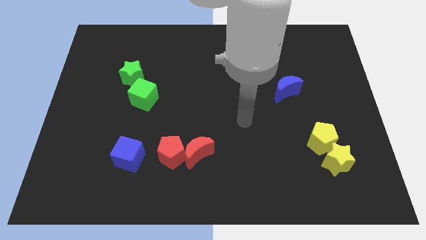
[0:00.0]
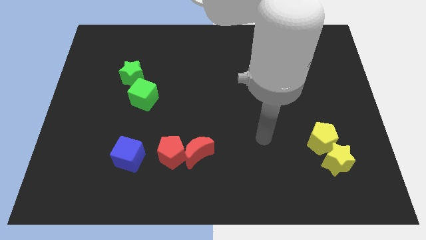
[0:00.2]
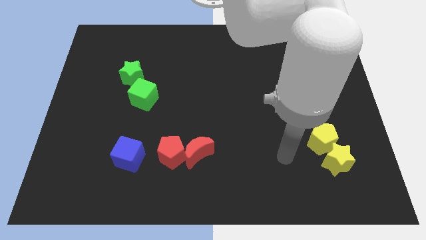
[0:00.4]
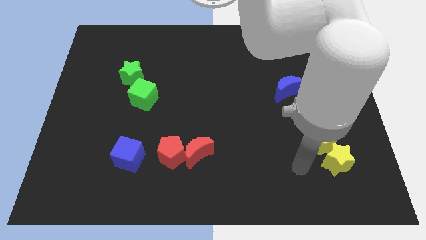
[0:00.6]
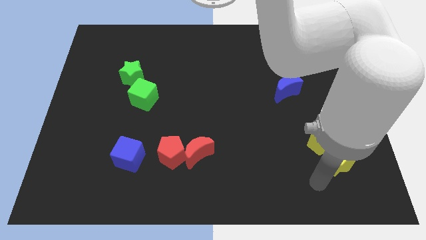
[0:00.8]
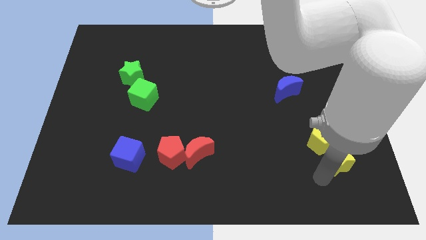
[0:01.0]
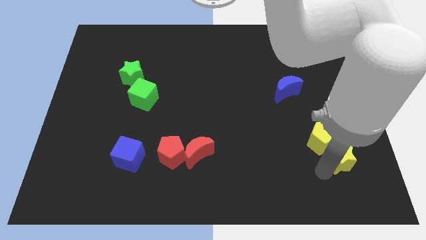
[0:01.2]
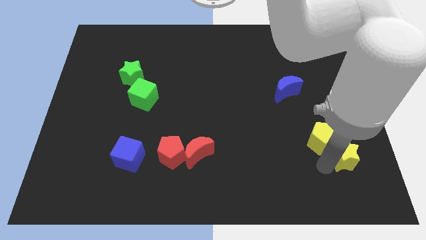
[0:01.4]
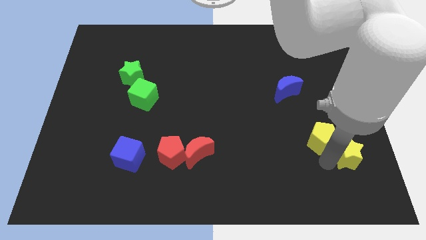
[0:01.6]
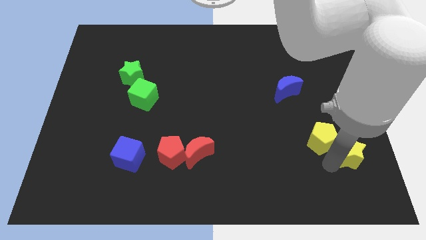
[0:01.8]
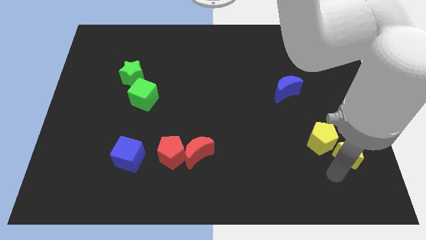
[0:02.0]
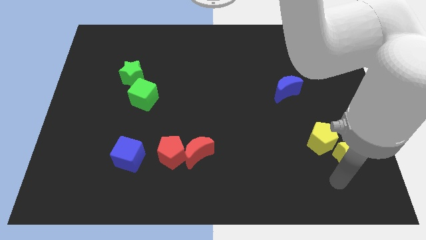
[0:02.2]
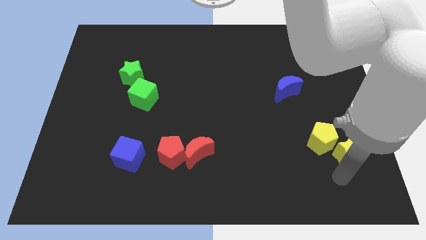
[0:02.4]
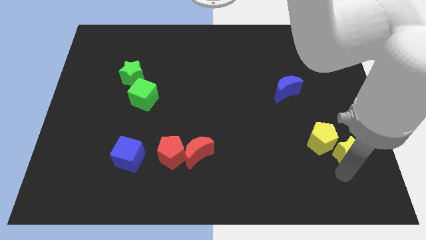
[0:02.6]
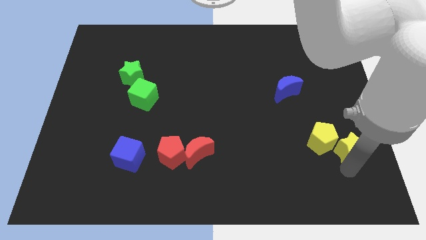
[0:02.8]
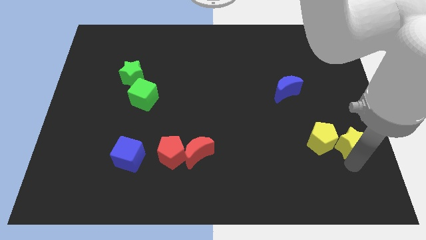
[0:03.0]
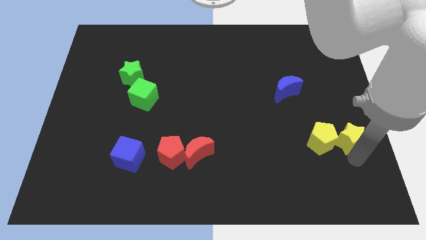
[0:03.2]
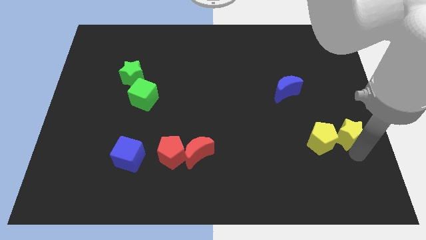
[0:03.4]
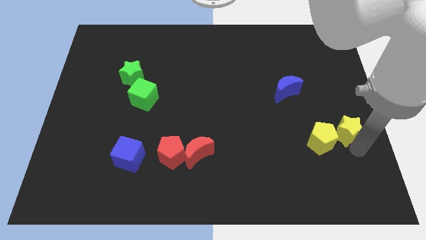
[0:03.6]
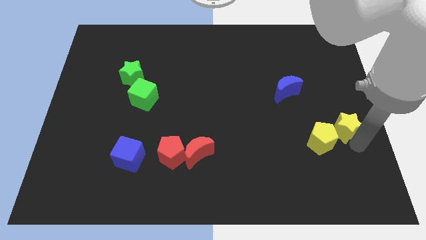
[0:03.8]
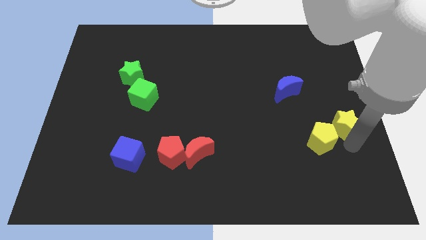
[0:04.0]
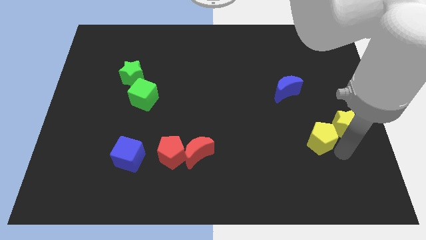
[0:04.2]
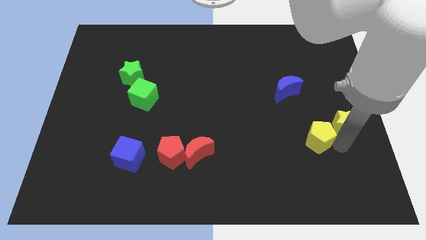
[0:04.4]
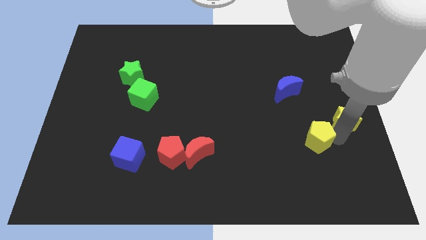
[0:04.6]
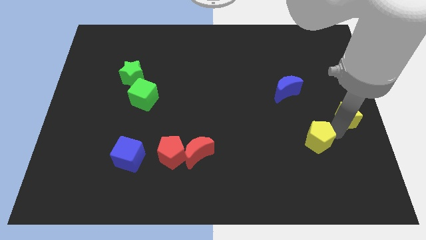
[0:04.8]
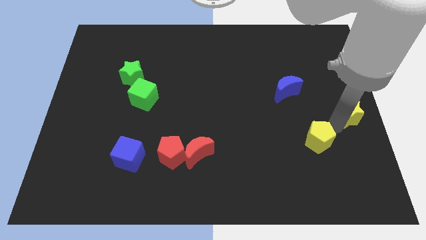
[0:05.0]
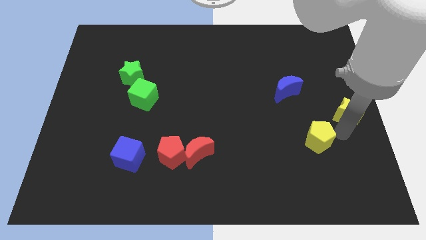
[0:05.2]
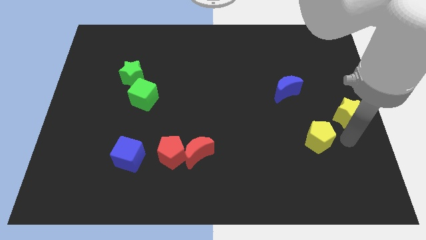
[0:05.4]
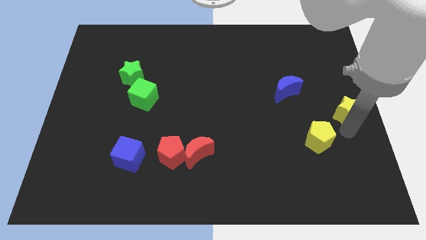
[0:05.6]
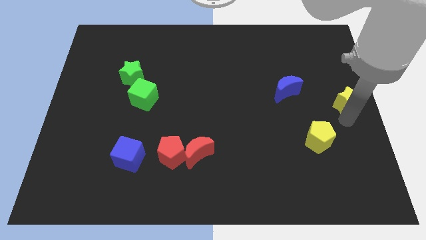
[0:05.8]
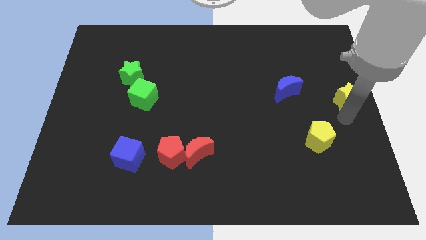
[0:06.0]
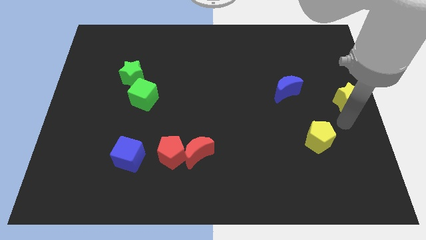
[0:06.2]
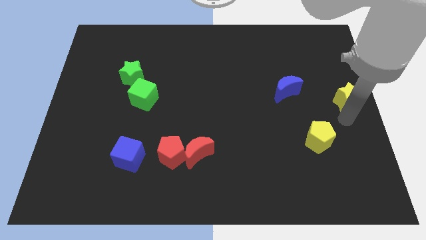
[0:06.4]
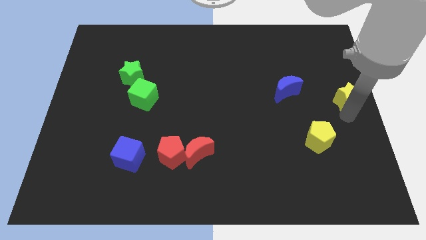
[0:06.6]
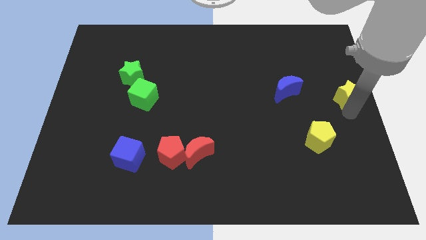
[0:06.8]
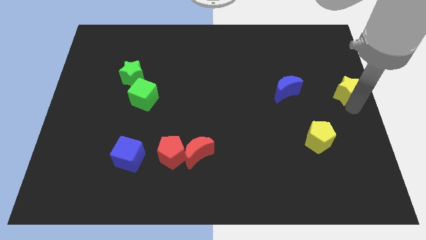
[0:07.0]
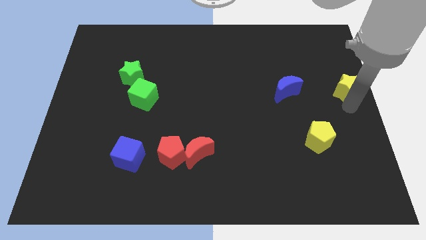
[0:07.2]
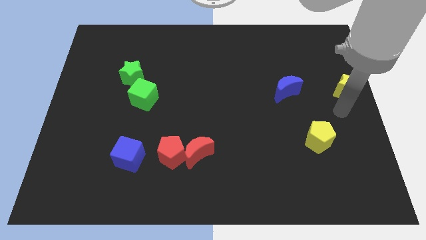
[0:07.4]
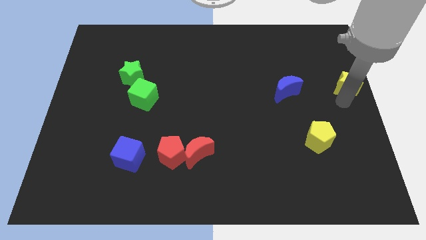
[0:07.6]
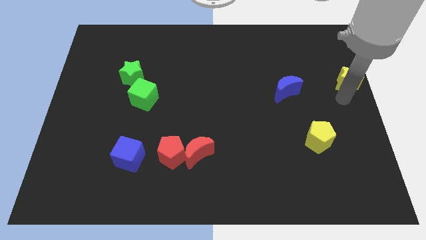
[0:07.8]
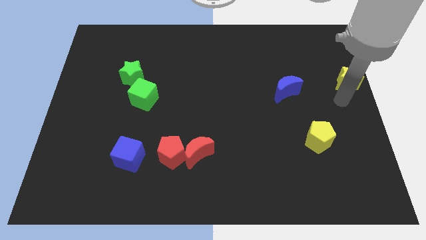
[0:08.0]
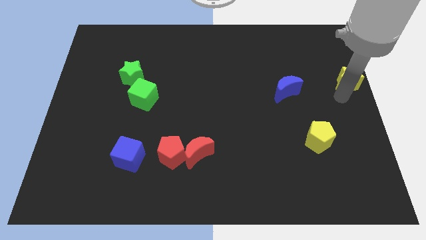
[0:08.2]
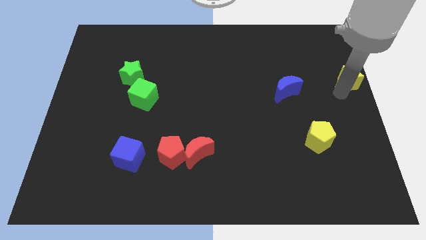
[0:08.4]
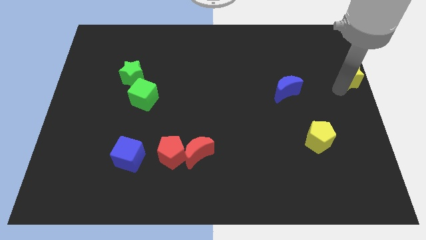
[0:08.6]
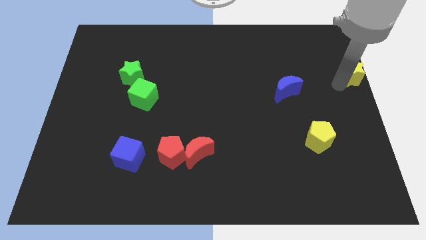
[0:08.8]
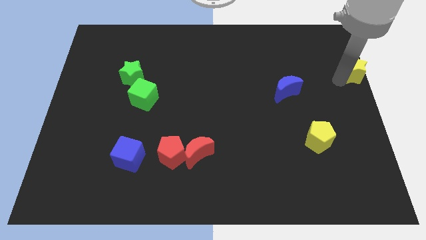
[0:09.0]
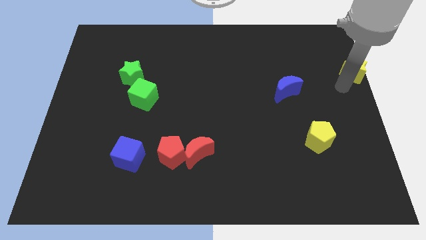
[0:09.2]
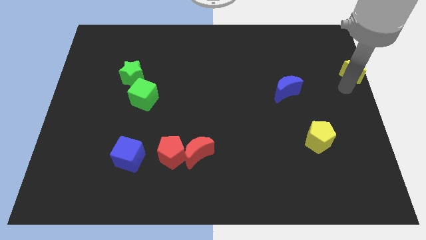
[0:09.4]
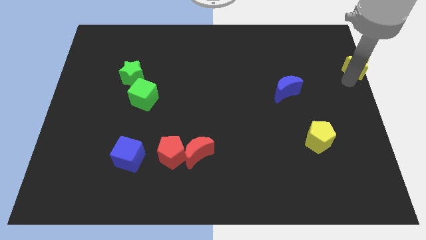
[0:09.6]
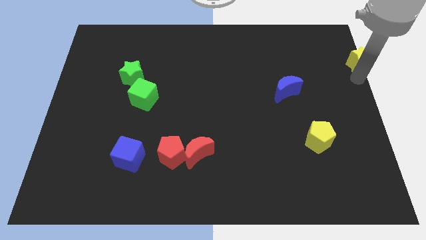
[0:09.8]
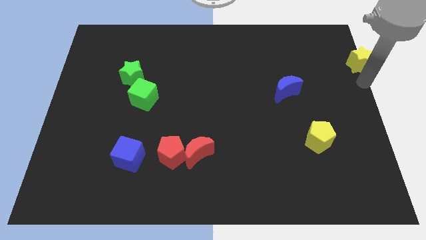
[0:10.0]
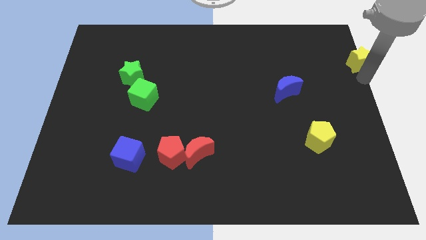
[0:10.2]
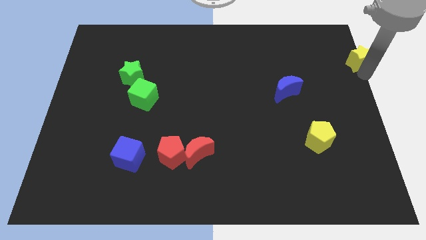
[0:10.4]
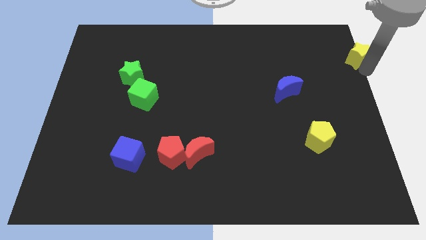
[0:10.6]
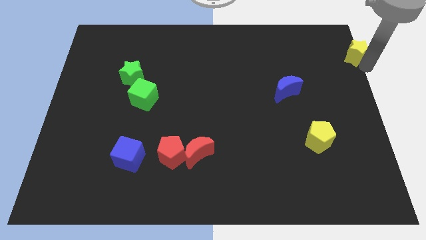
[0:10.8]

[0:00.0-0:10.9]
put the yellow star to the upper right corner

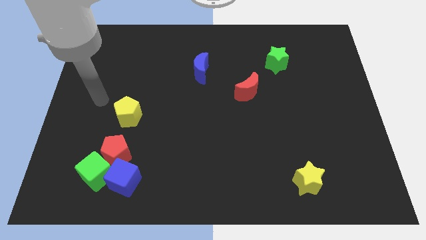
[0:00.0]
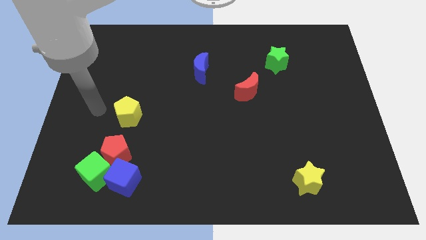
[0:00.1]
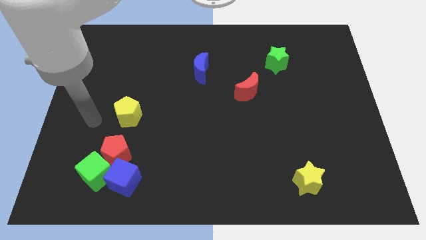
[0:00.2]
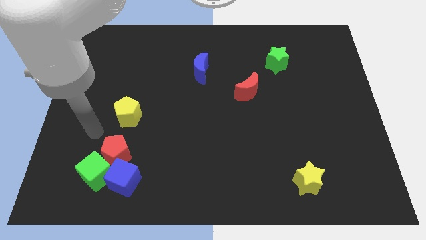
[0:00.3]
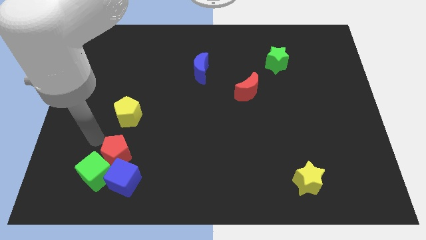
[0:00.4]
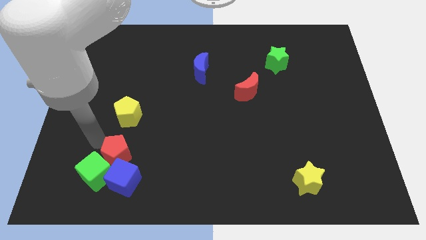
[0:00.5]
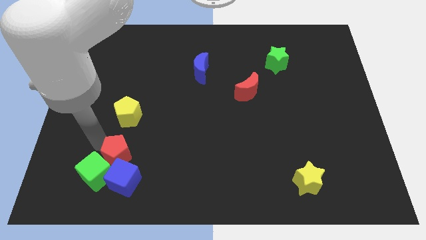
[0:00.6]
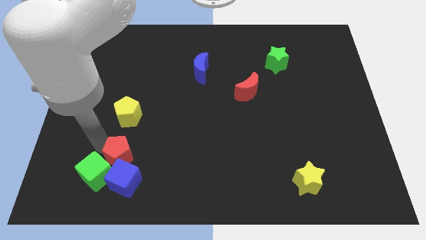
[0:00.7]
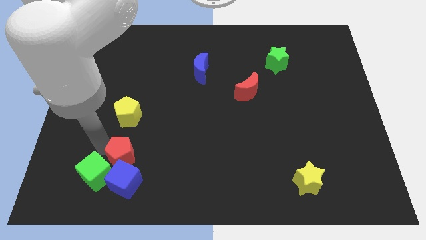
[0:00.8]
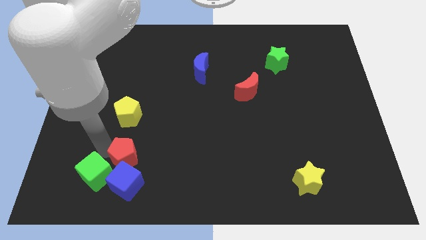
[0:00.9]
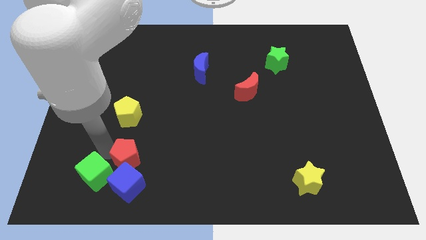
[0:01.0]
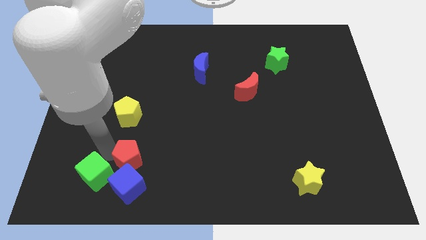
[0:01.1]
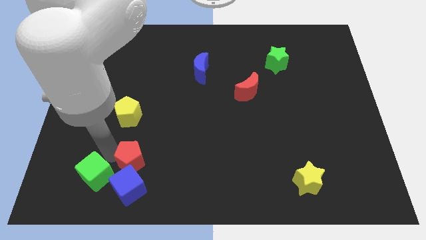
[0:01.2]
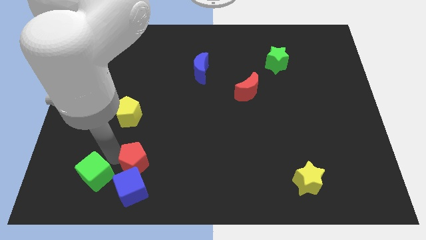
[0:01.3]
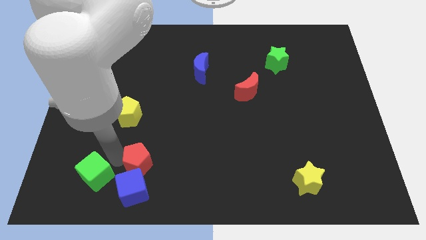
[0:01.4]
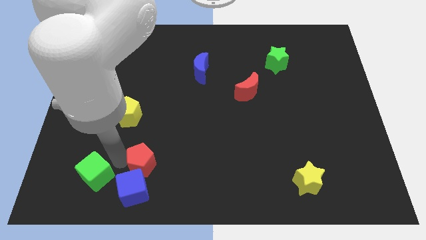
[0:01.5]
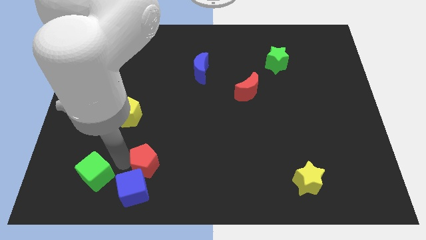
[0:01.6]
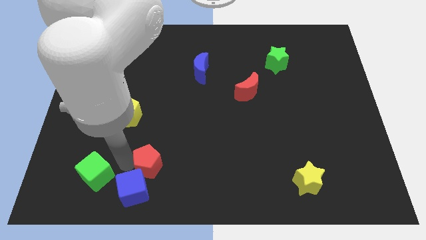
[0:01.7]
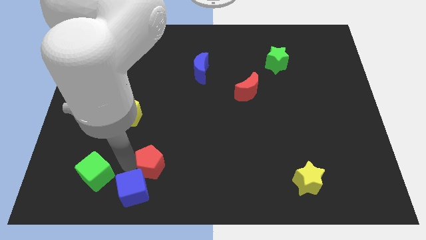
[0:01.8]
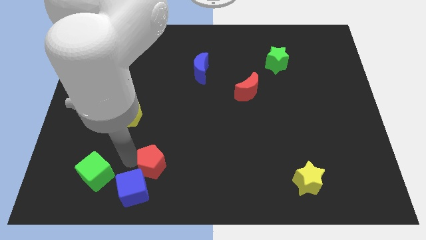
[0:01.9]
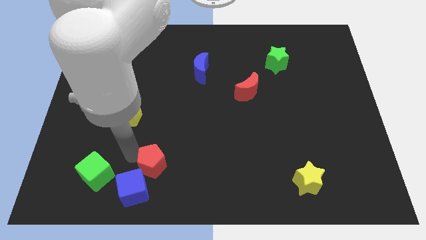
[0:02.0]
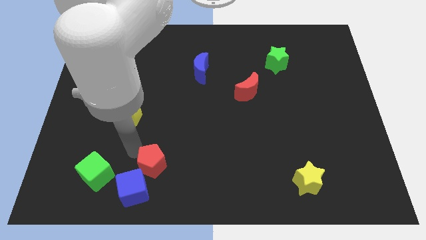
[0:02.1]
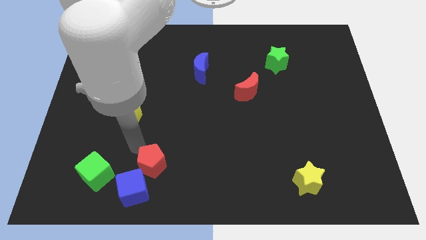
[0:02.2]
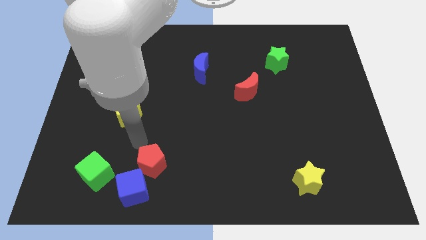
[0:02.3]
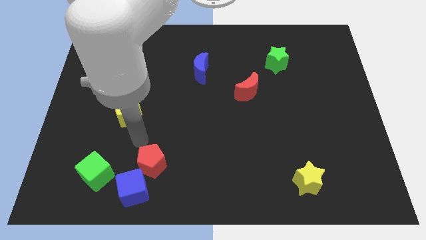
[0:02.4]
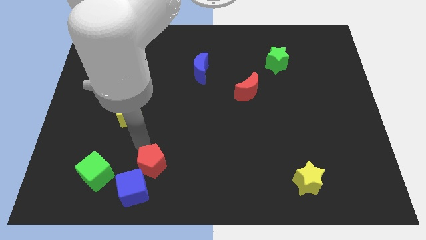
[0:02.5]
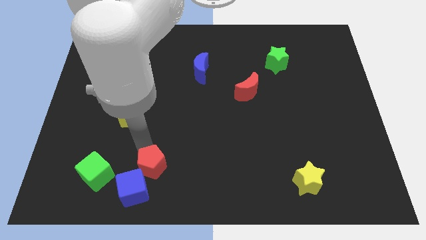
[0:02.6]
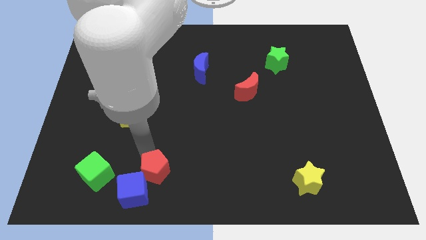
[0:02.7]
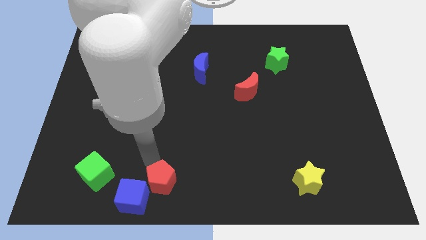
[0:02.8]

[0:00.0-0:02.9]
slide the red pentagon to the bottom
